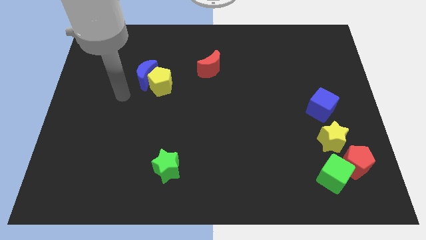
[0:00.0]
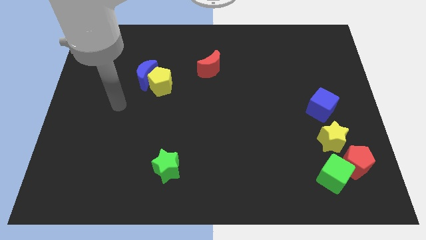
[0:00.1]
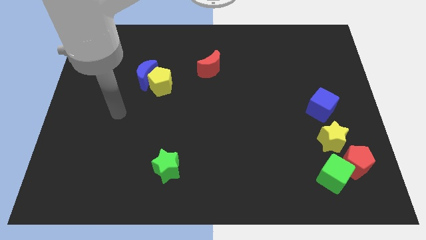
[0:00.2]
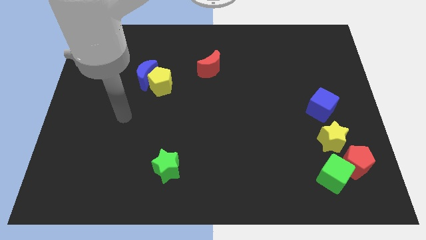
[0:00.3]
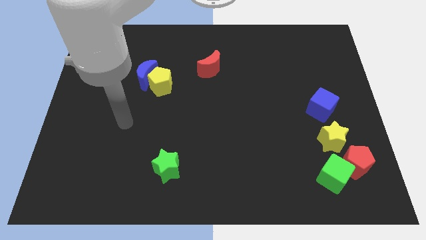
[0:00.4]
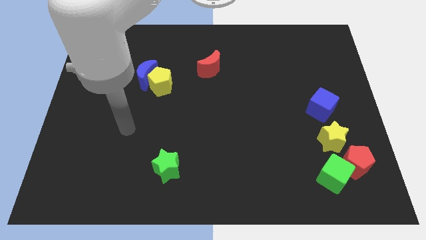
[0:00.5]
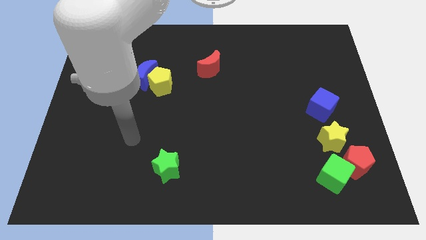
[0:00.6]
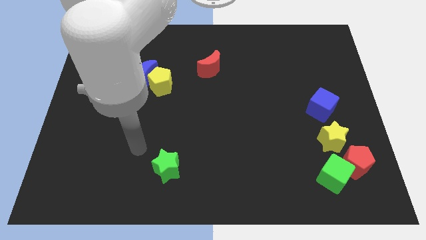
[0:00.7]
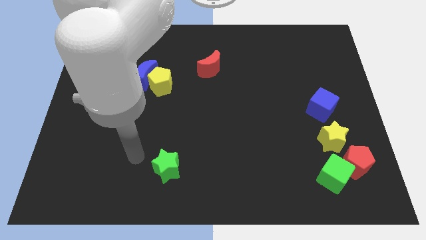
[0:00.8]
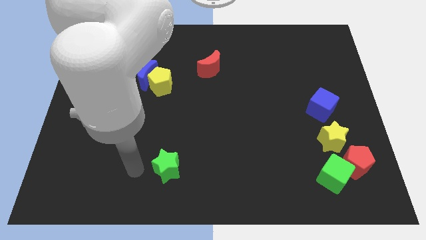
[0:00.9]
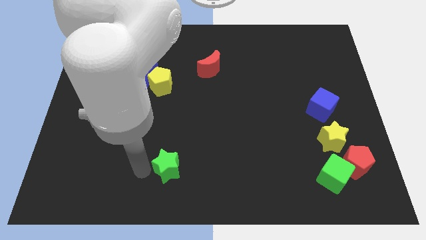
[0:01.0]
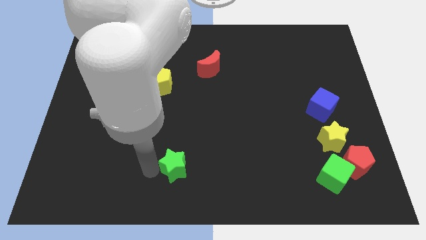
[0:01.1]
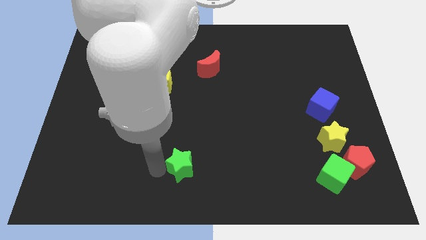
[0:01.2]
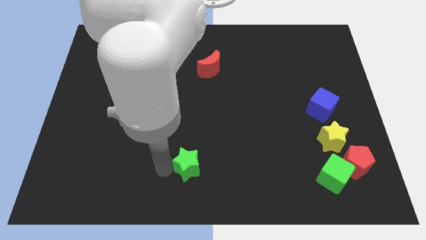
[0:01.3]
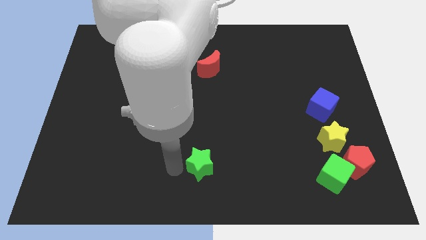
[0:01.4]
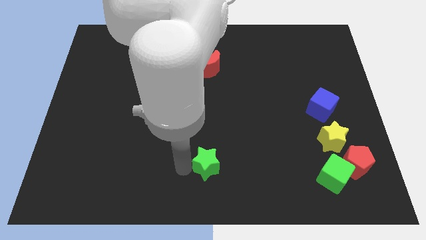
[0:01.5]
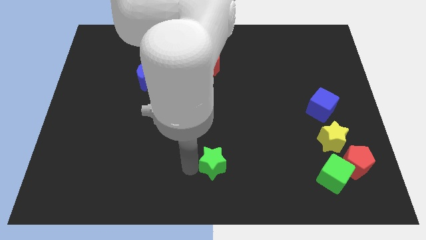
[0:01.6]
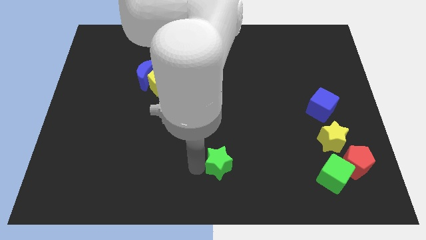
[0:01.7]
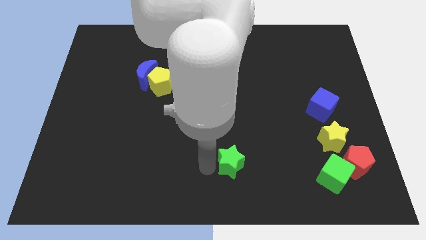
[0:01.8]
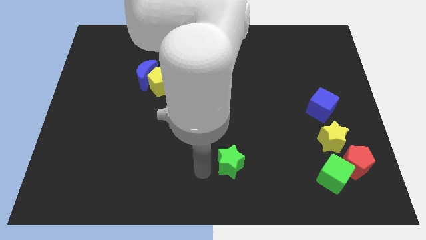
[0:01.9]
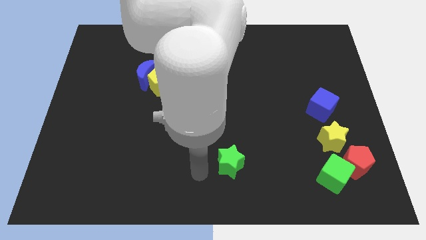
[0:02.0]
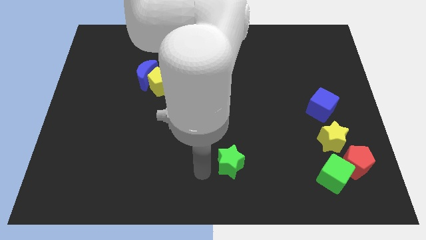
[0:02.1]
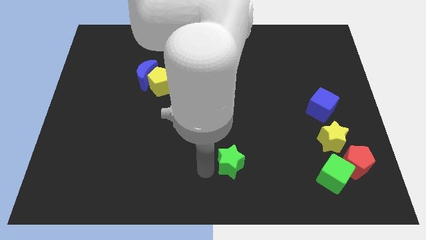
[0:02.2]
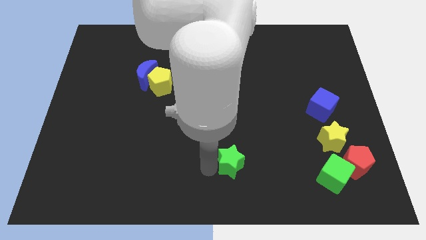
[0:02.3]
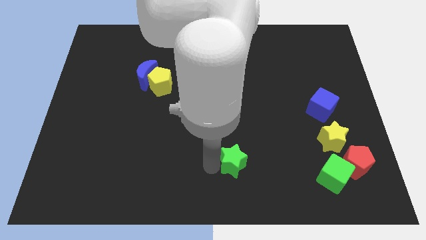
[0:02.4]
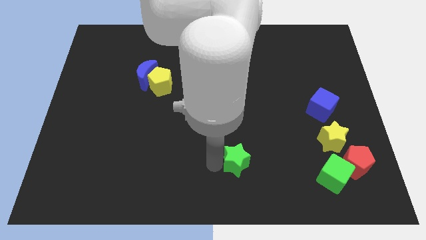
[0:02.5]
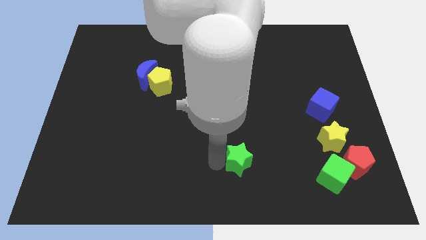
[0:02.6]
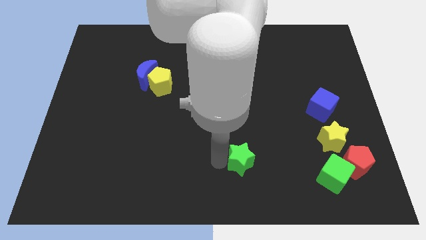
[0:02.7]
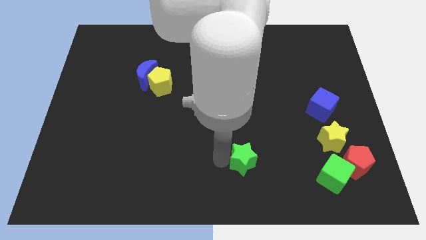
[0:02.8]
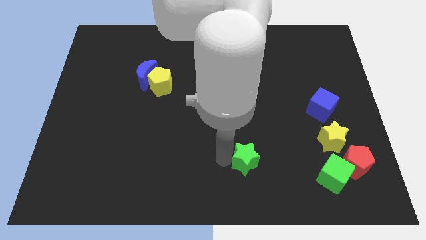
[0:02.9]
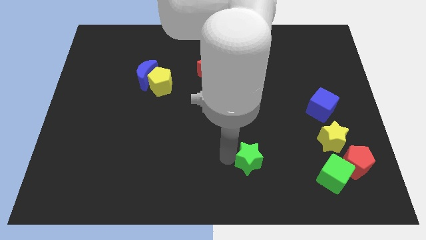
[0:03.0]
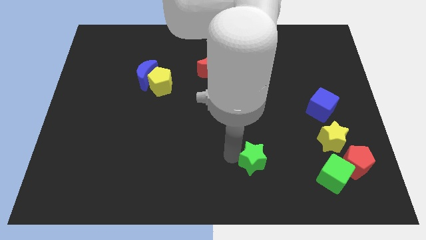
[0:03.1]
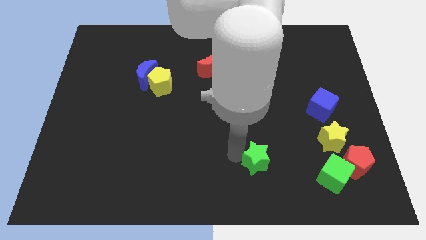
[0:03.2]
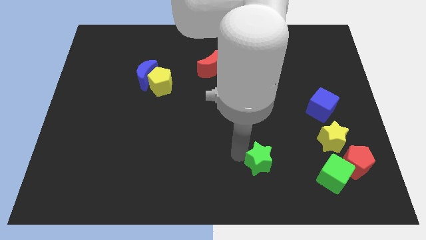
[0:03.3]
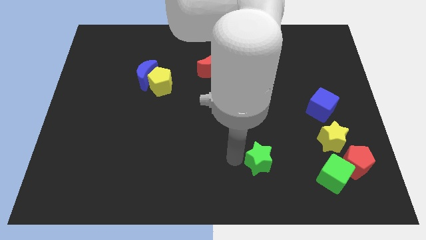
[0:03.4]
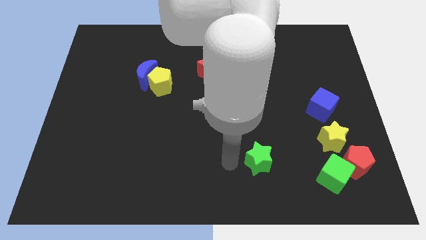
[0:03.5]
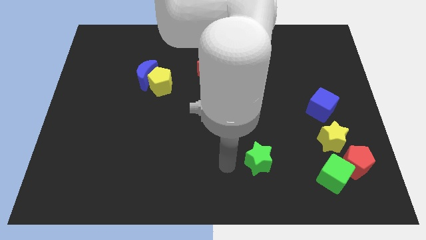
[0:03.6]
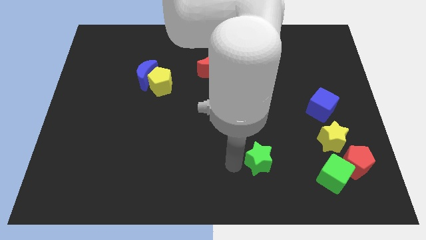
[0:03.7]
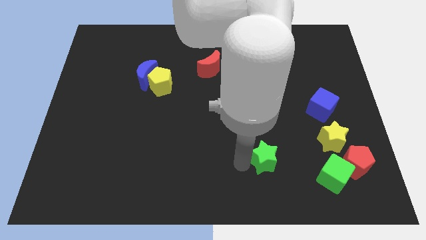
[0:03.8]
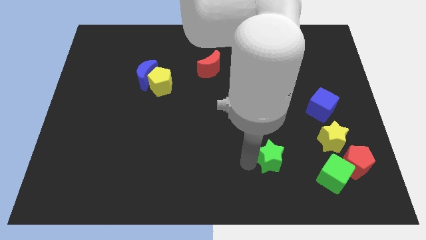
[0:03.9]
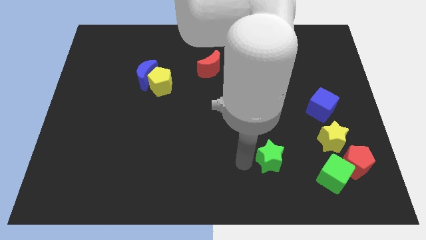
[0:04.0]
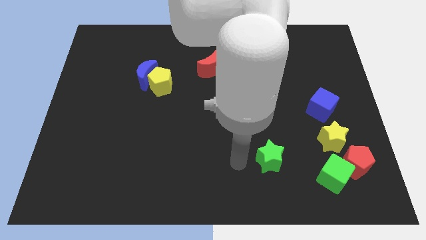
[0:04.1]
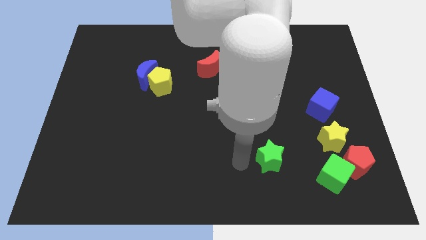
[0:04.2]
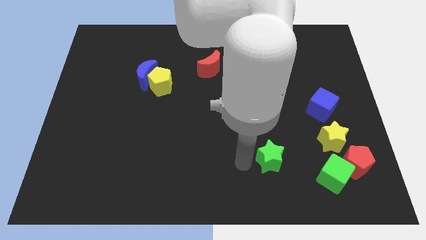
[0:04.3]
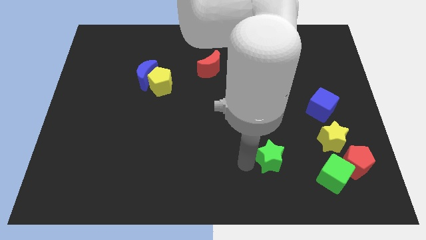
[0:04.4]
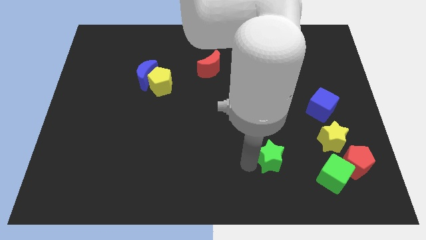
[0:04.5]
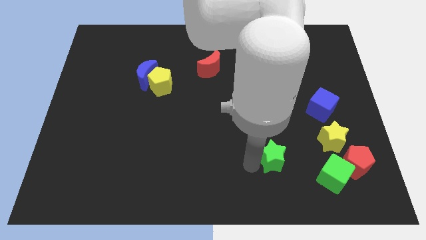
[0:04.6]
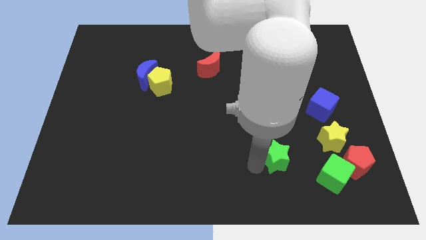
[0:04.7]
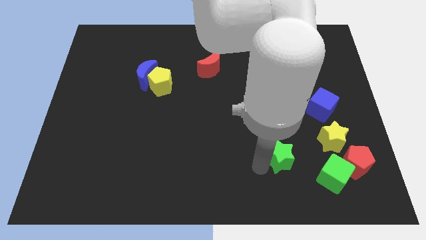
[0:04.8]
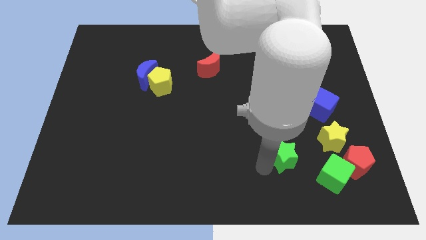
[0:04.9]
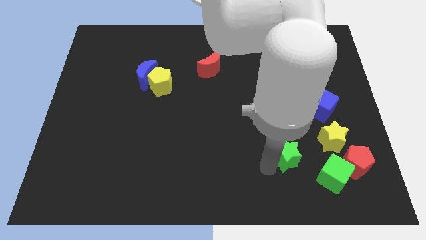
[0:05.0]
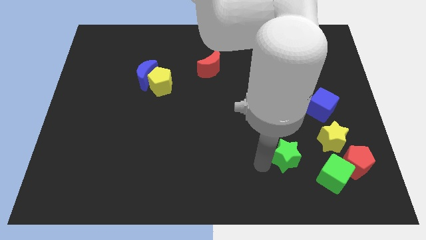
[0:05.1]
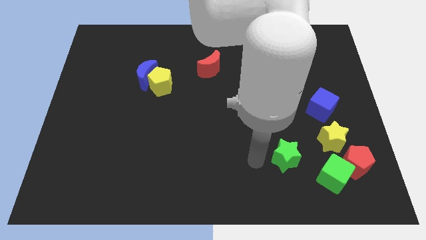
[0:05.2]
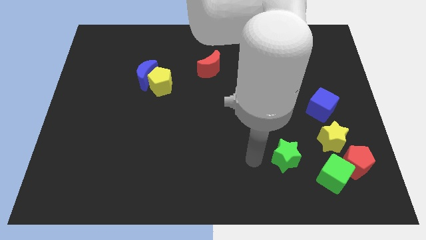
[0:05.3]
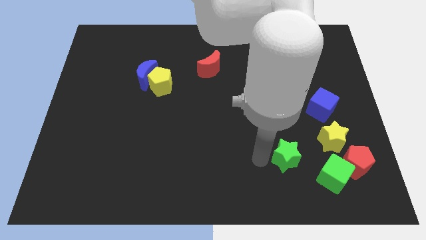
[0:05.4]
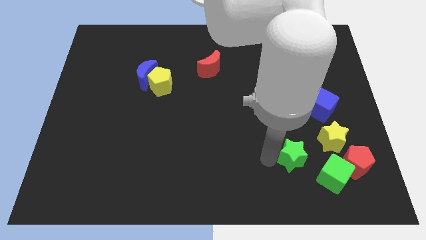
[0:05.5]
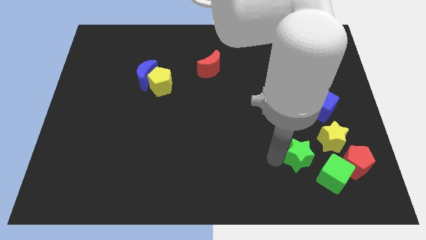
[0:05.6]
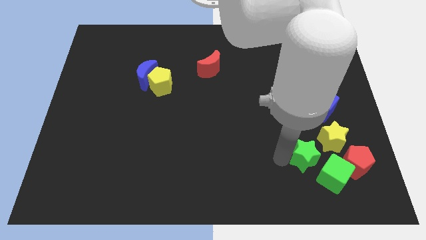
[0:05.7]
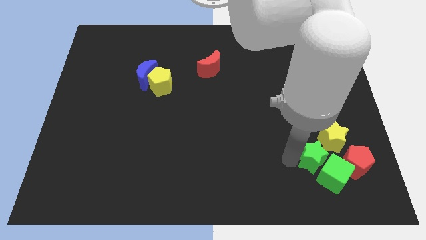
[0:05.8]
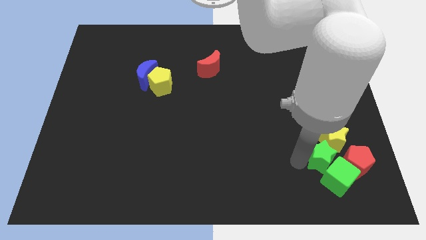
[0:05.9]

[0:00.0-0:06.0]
move the green star to the bottom of the blue cube

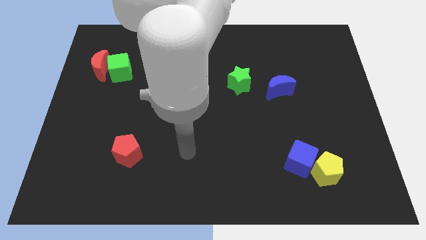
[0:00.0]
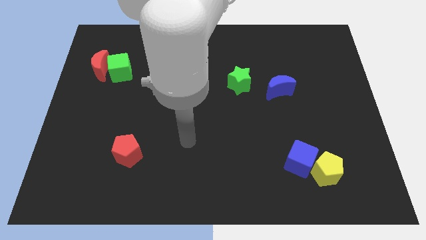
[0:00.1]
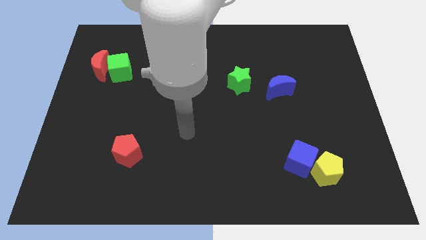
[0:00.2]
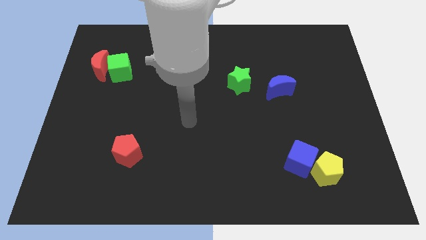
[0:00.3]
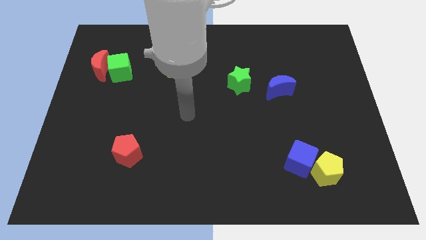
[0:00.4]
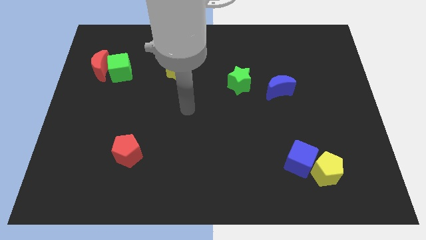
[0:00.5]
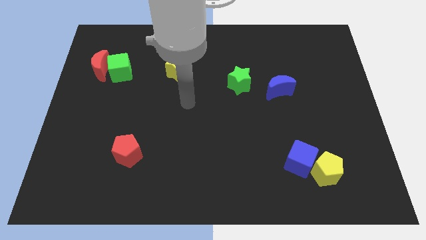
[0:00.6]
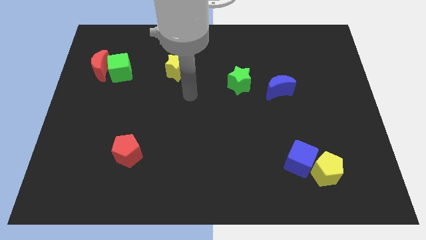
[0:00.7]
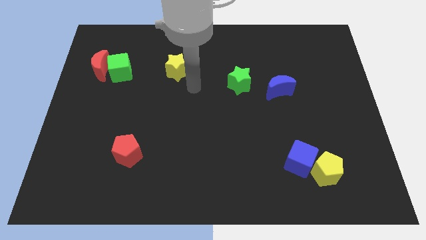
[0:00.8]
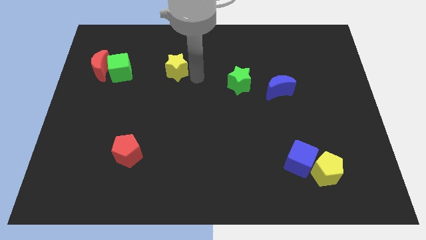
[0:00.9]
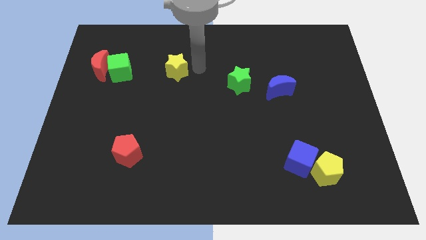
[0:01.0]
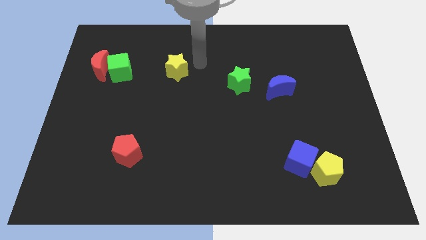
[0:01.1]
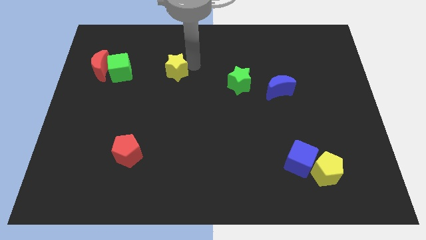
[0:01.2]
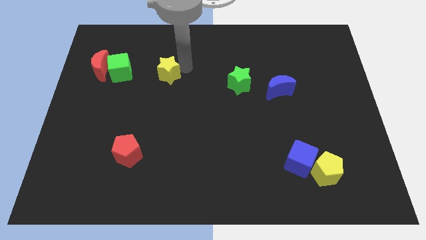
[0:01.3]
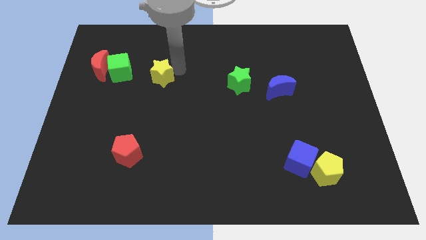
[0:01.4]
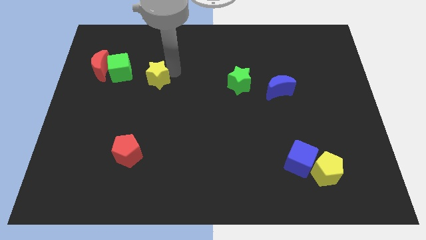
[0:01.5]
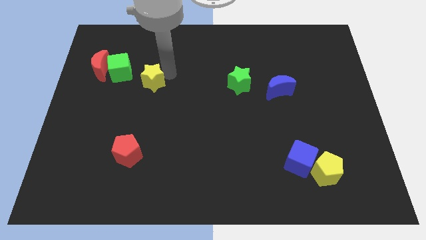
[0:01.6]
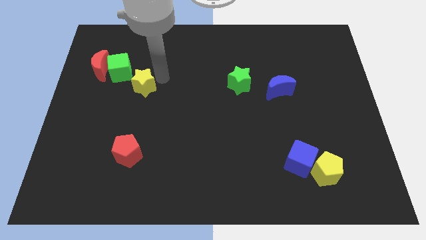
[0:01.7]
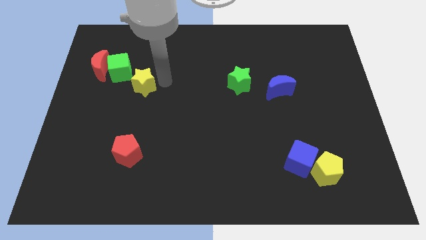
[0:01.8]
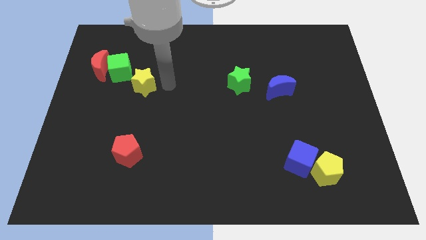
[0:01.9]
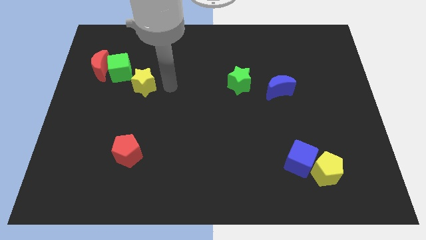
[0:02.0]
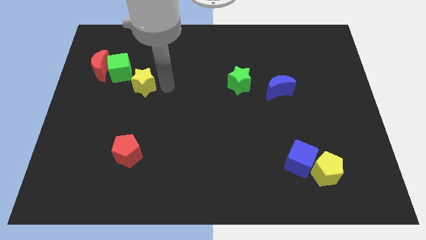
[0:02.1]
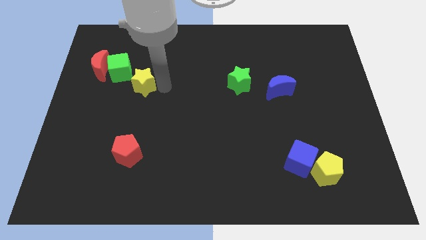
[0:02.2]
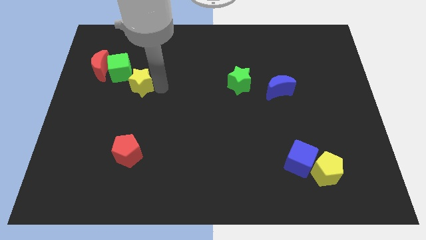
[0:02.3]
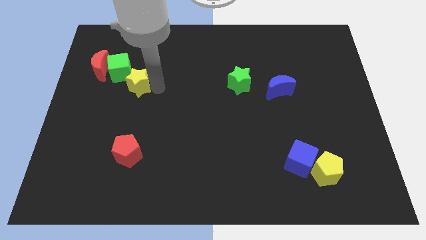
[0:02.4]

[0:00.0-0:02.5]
push the yellow star to the bottom right side of the red moon
